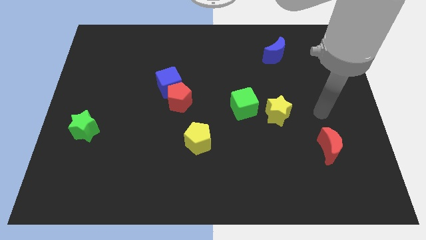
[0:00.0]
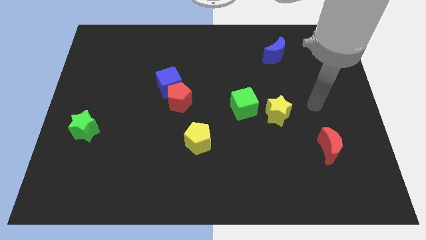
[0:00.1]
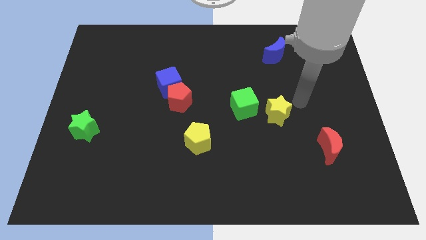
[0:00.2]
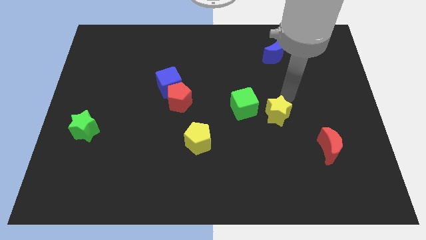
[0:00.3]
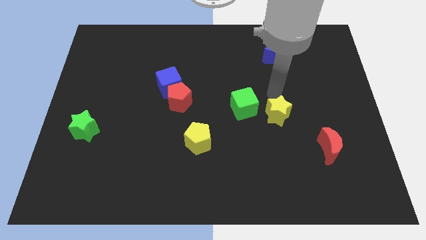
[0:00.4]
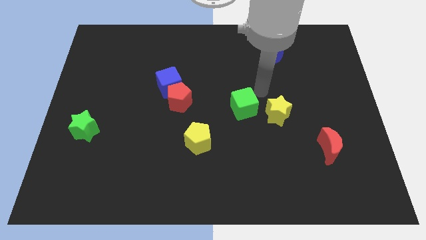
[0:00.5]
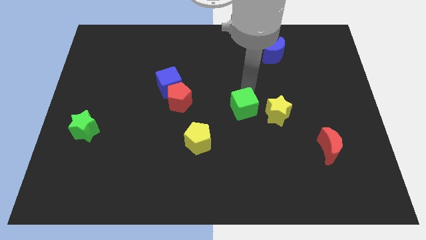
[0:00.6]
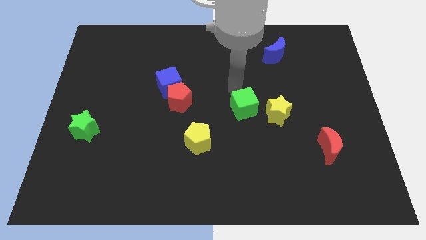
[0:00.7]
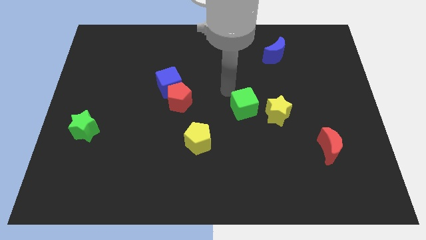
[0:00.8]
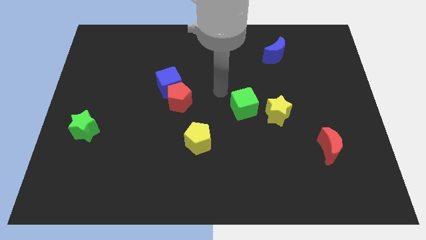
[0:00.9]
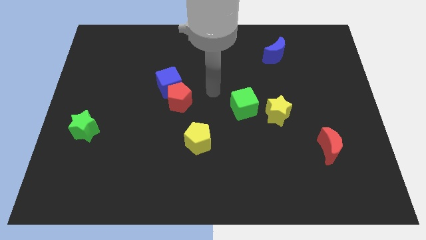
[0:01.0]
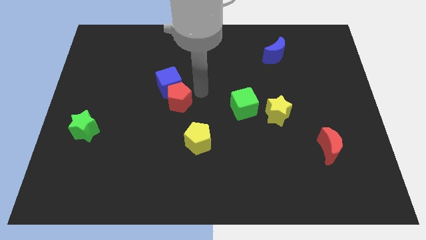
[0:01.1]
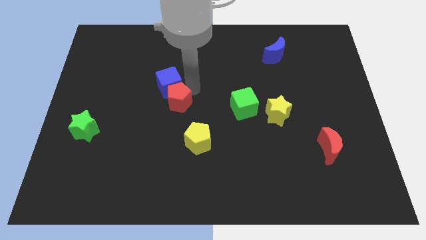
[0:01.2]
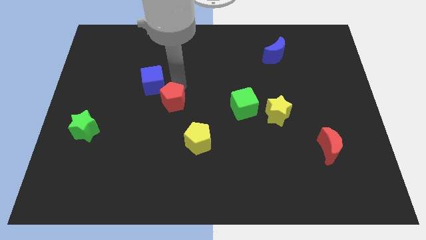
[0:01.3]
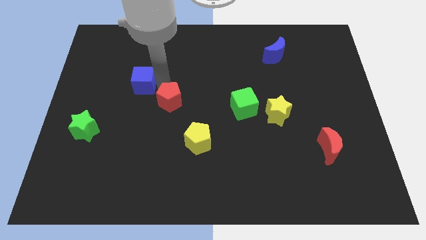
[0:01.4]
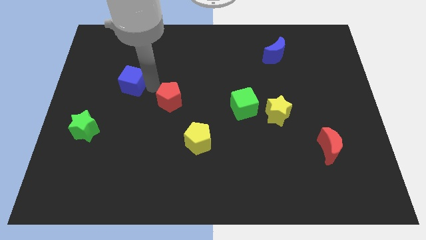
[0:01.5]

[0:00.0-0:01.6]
move the red pentagon away from the blue cube

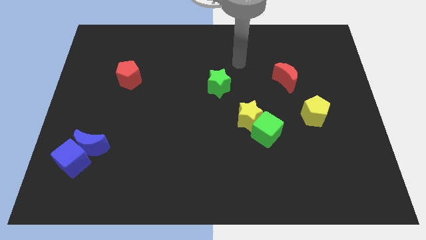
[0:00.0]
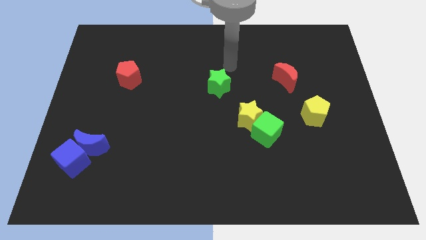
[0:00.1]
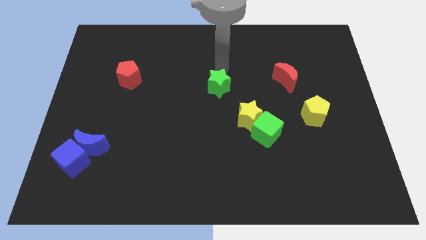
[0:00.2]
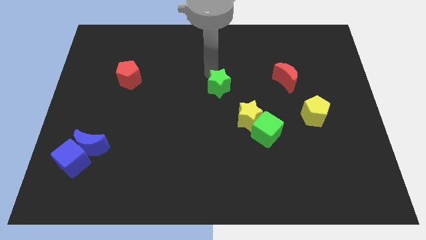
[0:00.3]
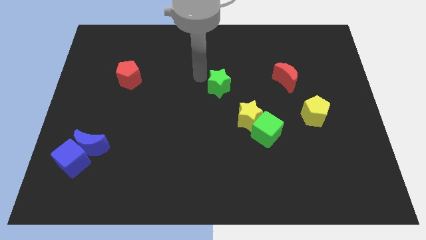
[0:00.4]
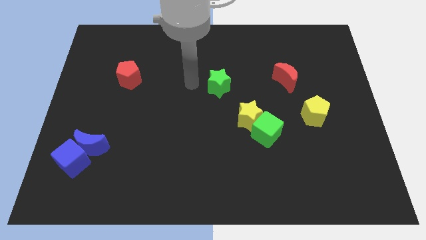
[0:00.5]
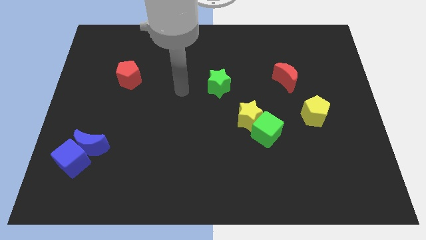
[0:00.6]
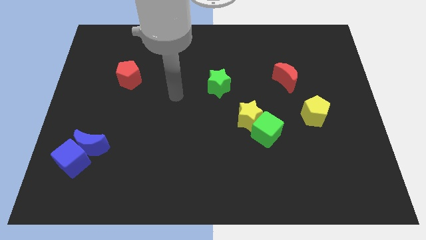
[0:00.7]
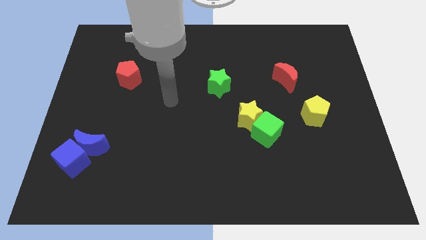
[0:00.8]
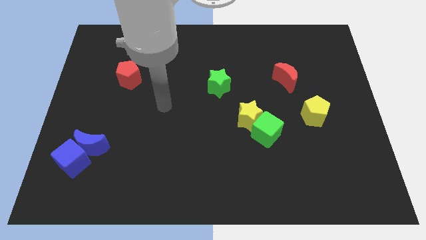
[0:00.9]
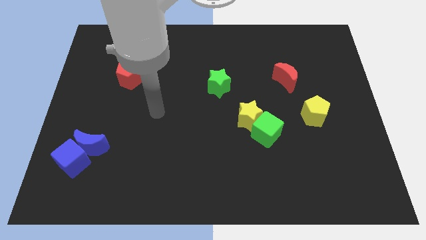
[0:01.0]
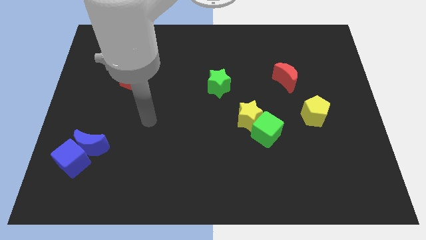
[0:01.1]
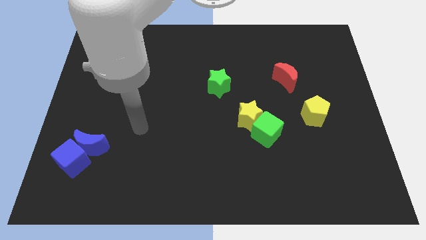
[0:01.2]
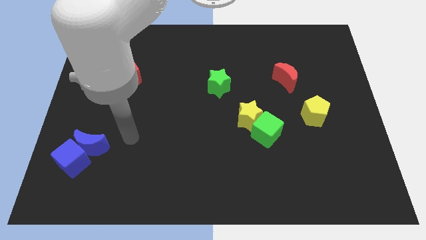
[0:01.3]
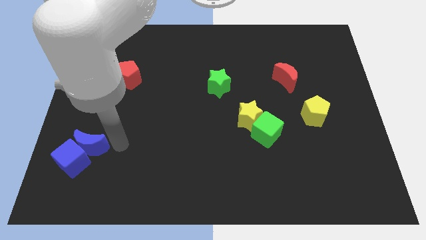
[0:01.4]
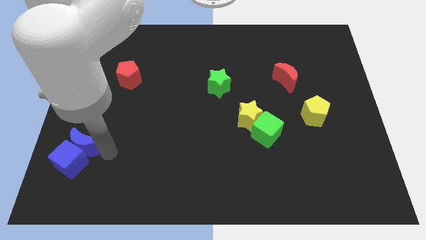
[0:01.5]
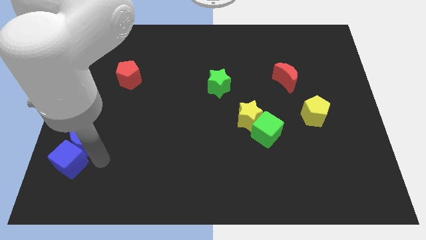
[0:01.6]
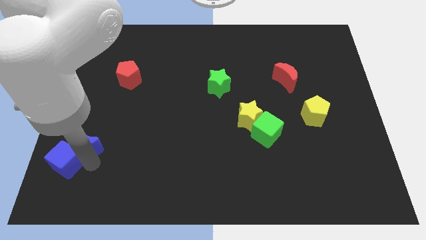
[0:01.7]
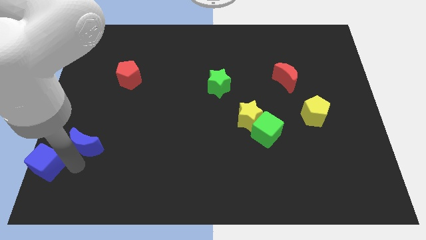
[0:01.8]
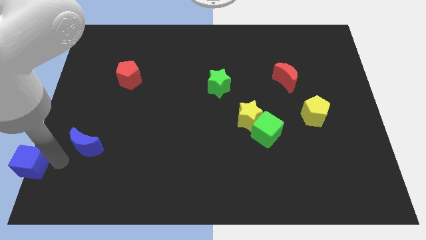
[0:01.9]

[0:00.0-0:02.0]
pull the blue moon apart from the blue cube

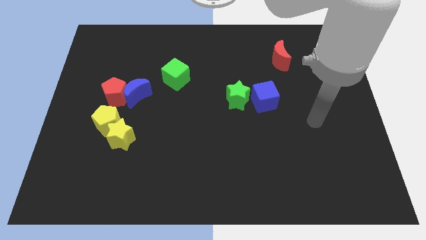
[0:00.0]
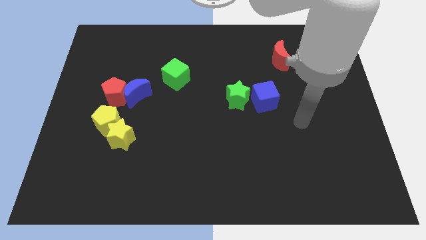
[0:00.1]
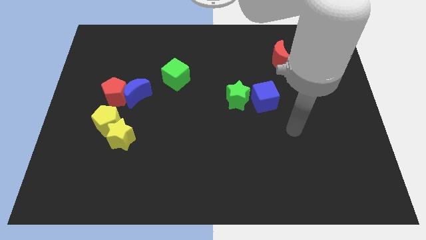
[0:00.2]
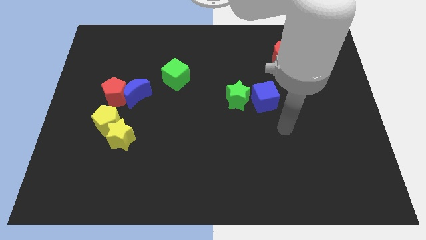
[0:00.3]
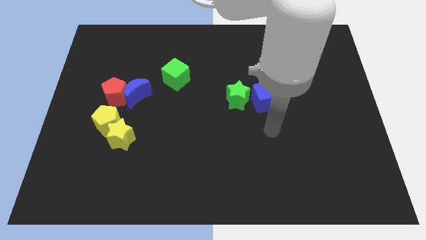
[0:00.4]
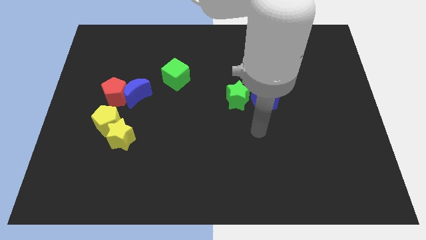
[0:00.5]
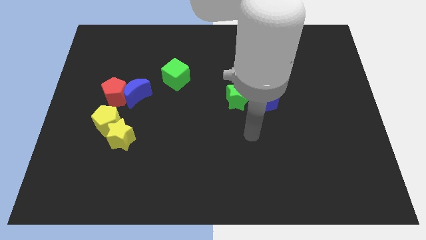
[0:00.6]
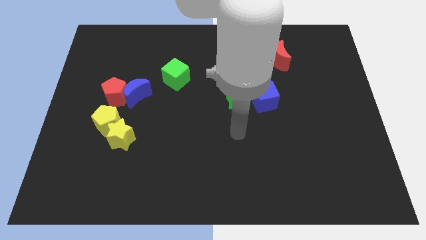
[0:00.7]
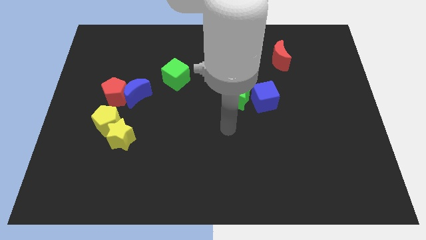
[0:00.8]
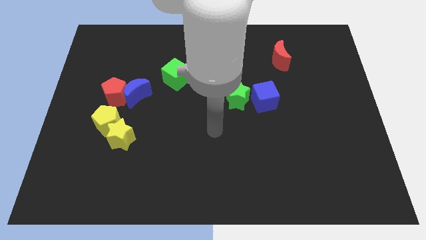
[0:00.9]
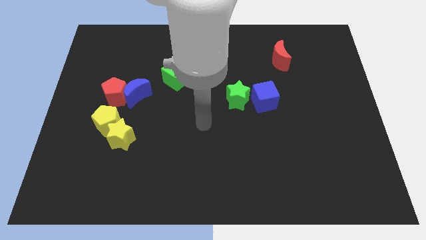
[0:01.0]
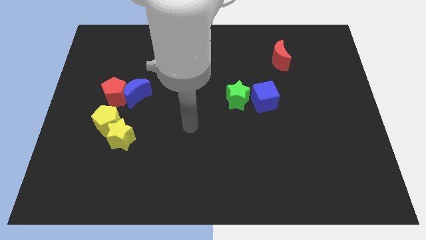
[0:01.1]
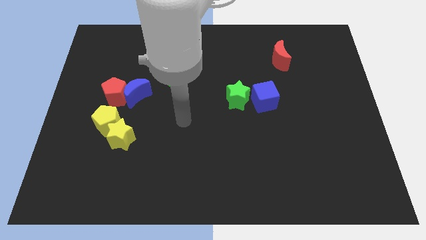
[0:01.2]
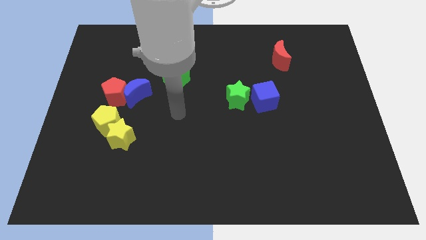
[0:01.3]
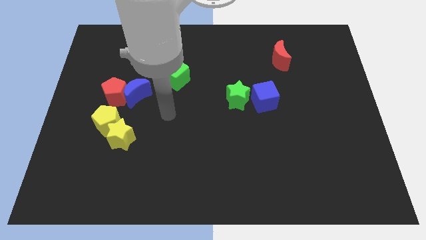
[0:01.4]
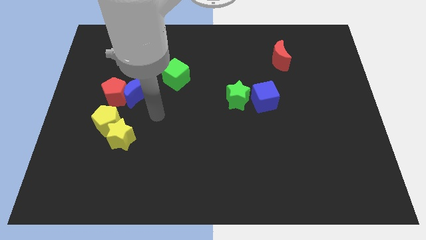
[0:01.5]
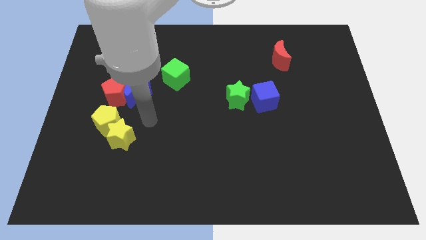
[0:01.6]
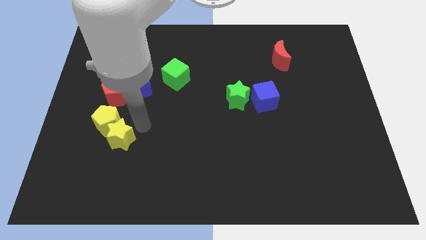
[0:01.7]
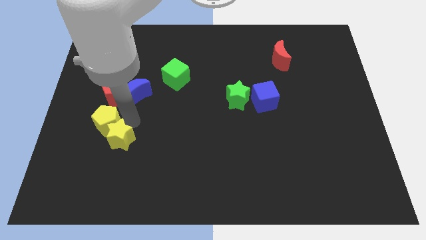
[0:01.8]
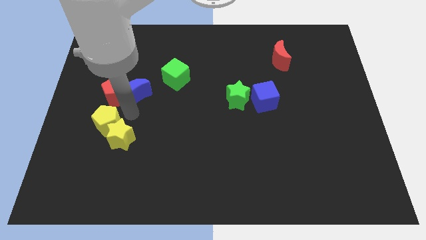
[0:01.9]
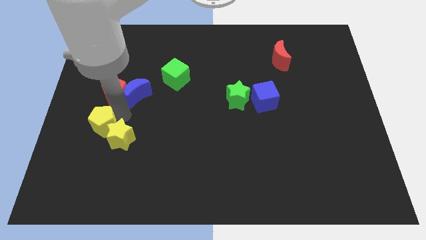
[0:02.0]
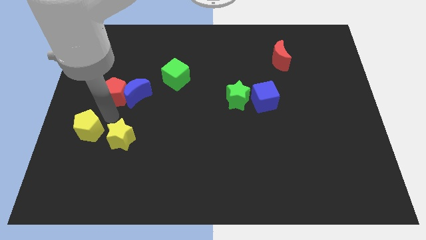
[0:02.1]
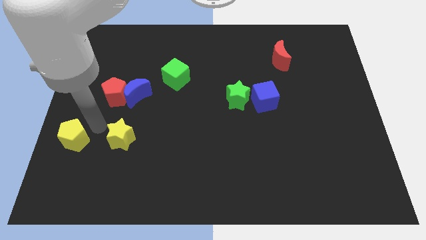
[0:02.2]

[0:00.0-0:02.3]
separate the yellow star from the yellow pentagon

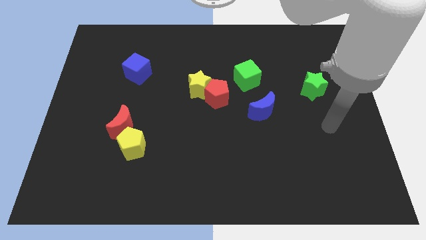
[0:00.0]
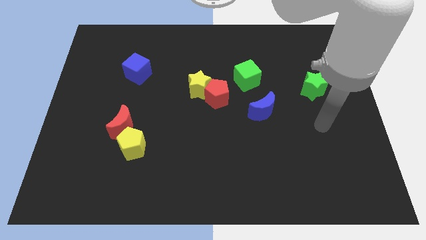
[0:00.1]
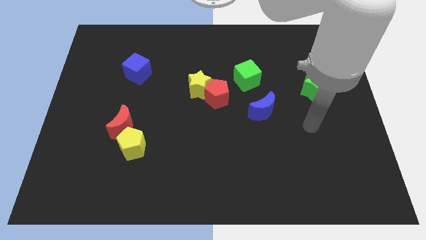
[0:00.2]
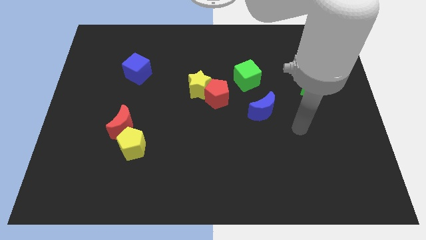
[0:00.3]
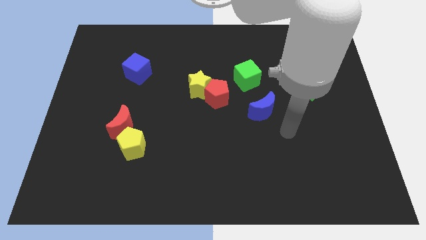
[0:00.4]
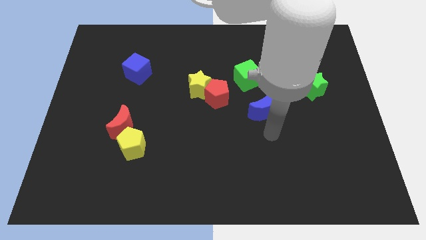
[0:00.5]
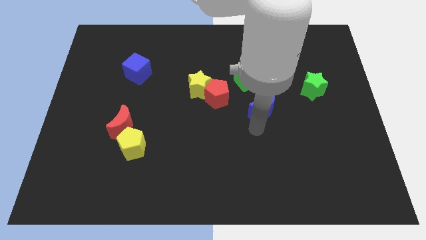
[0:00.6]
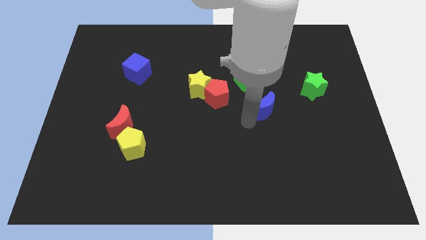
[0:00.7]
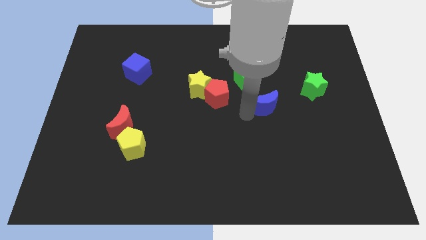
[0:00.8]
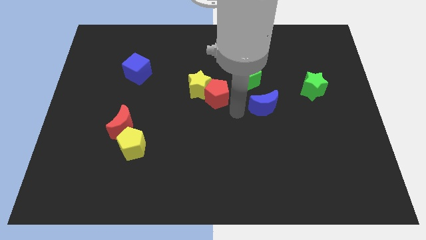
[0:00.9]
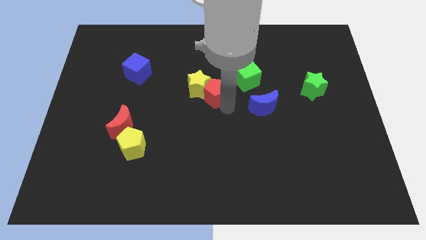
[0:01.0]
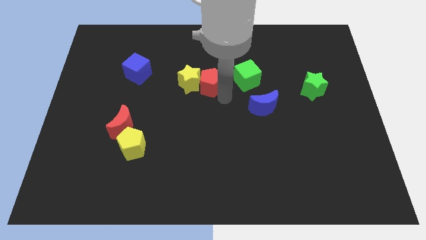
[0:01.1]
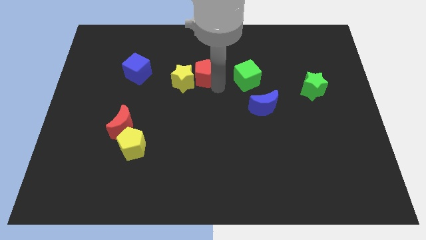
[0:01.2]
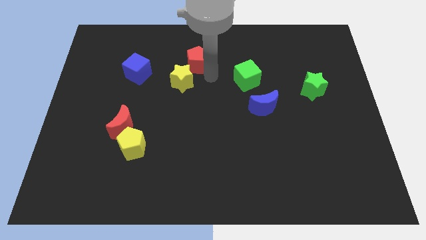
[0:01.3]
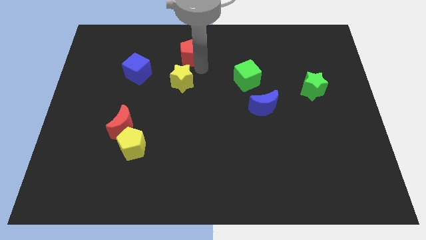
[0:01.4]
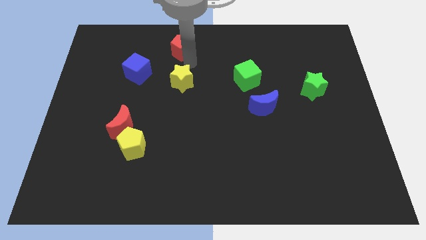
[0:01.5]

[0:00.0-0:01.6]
pull the yellow star apart from the red pentagon

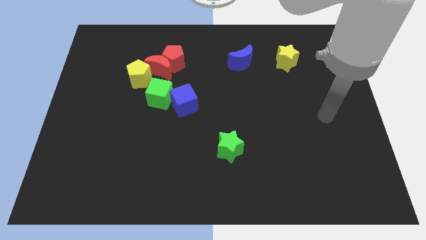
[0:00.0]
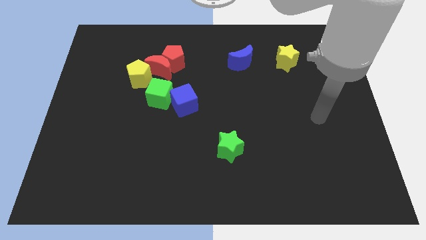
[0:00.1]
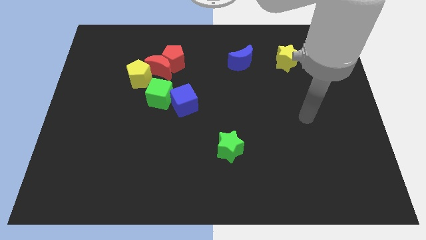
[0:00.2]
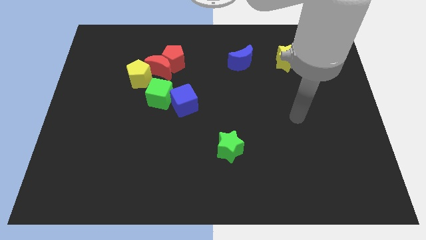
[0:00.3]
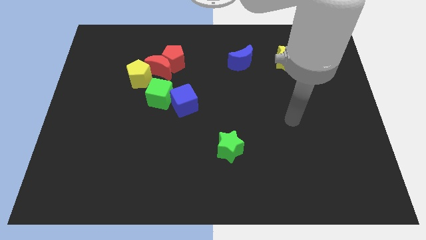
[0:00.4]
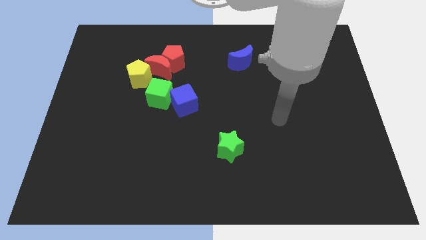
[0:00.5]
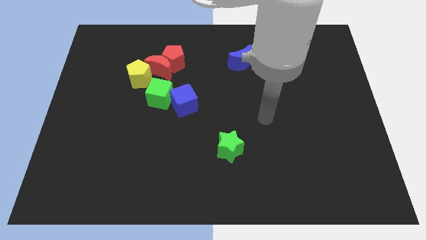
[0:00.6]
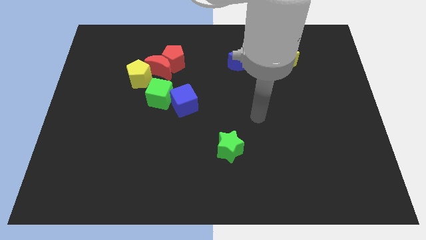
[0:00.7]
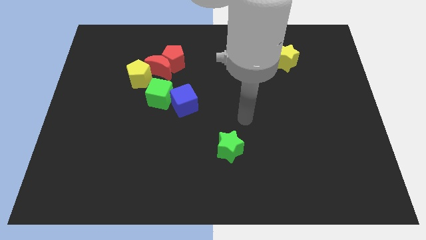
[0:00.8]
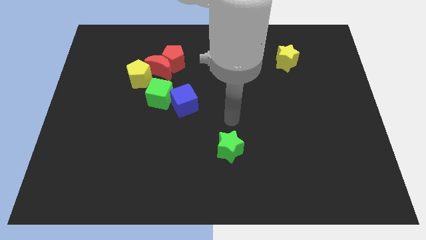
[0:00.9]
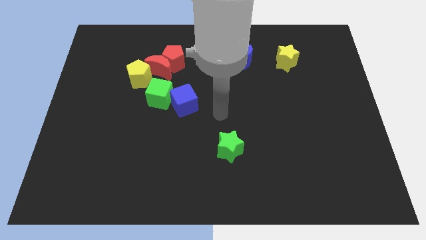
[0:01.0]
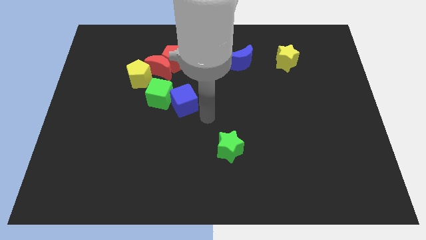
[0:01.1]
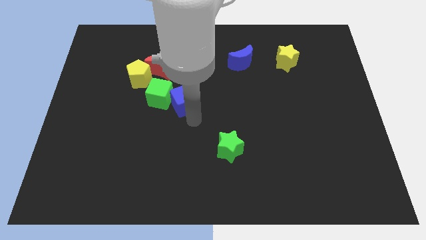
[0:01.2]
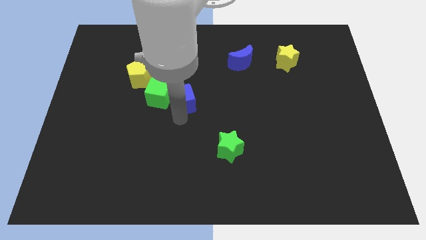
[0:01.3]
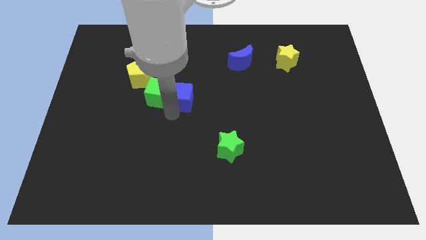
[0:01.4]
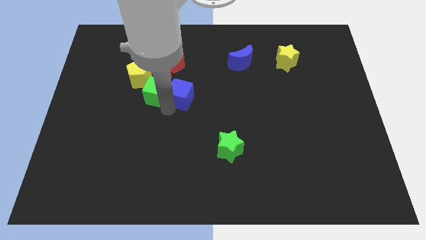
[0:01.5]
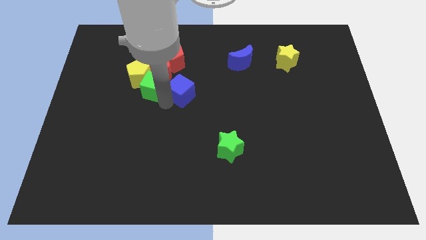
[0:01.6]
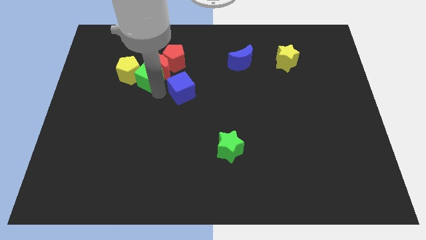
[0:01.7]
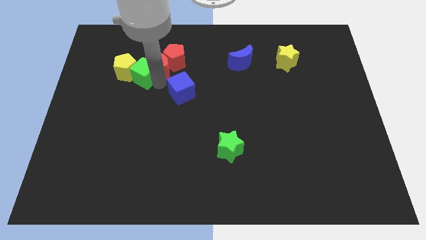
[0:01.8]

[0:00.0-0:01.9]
move the blue cube away from the green cube
